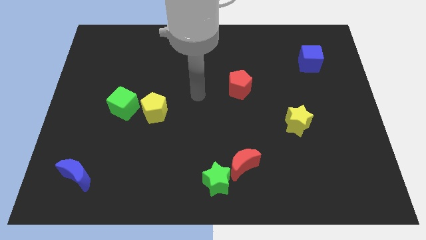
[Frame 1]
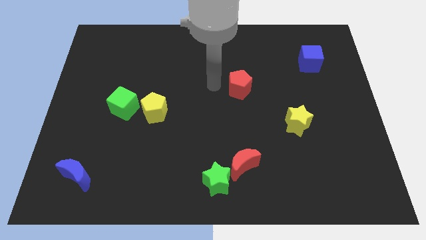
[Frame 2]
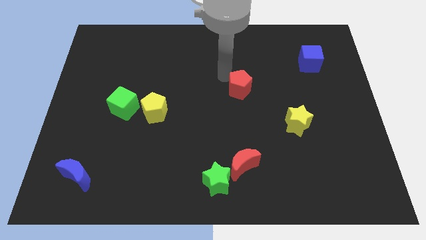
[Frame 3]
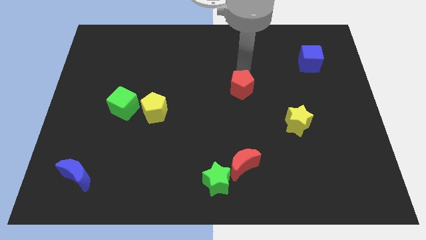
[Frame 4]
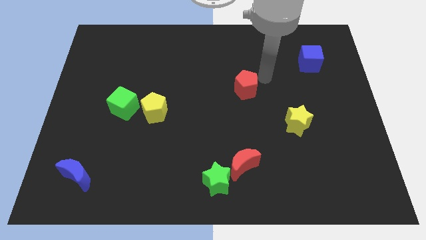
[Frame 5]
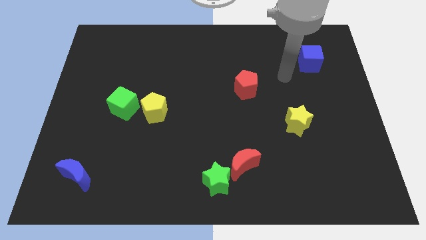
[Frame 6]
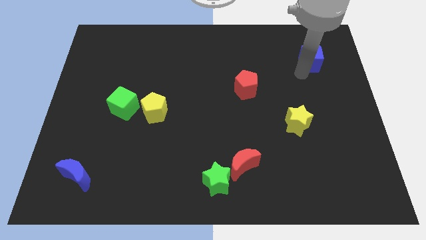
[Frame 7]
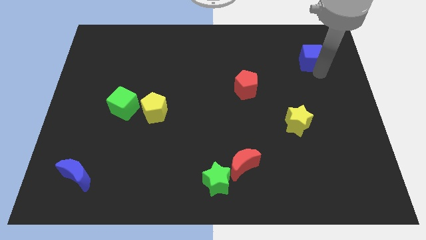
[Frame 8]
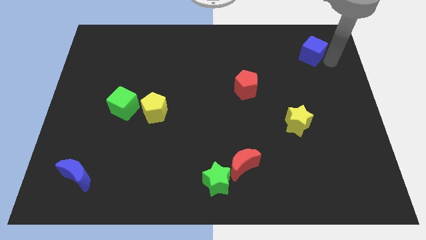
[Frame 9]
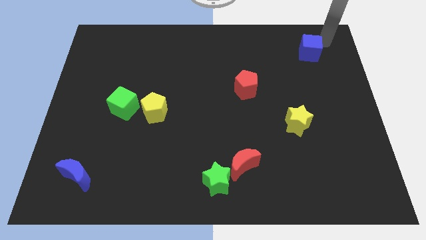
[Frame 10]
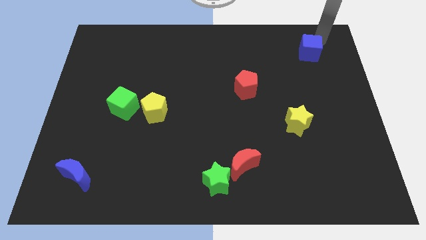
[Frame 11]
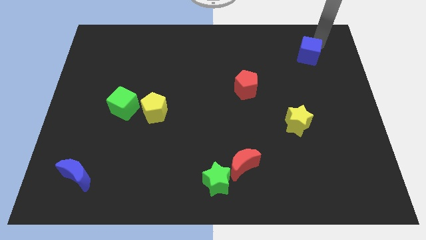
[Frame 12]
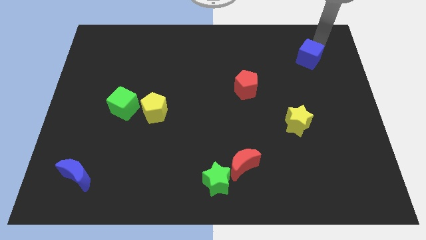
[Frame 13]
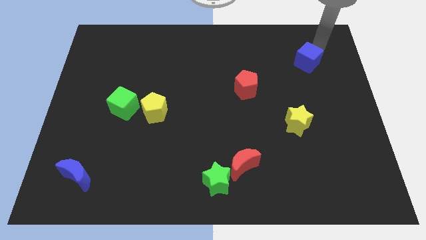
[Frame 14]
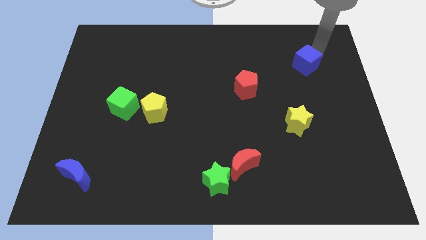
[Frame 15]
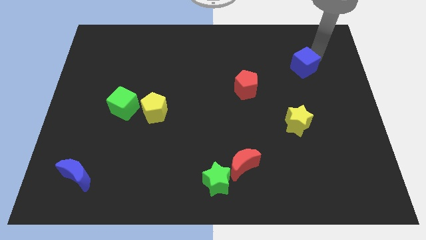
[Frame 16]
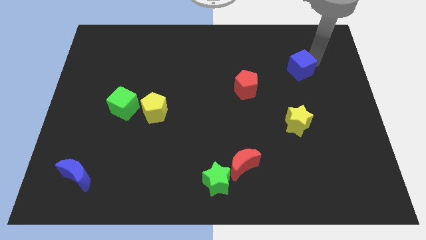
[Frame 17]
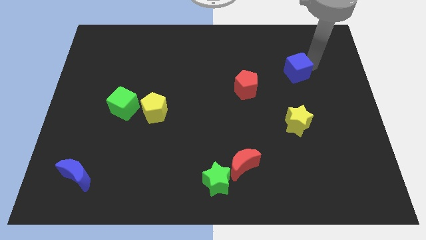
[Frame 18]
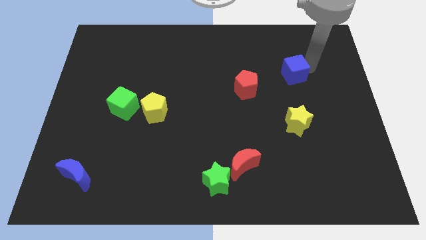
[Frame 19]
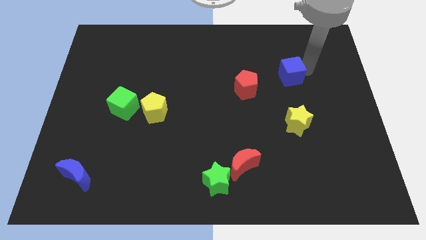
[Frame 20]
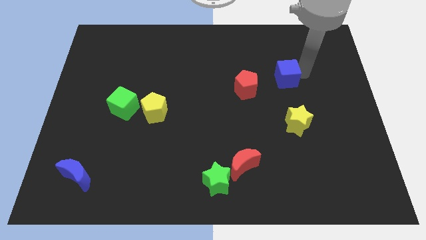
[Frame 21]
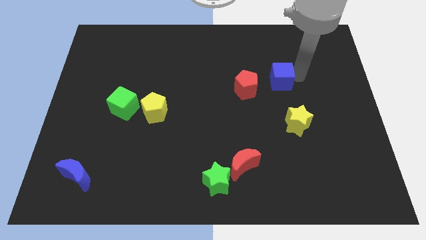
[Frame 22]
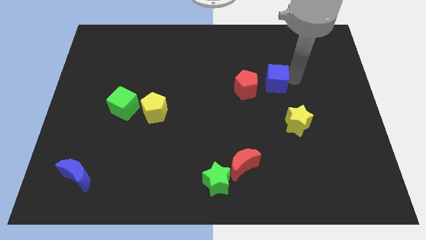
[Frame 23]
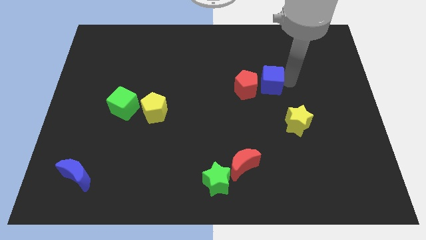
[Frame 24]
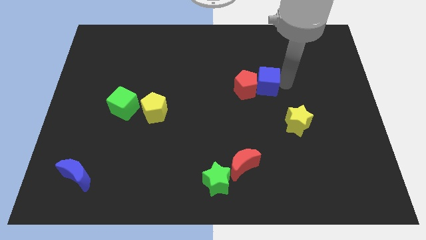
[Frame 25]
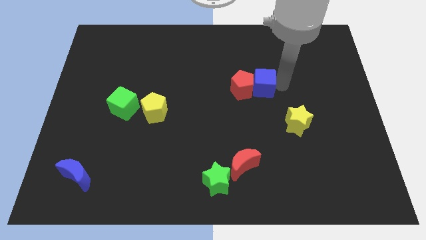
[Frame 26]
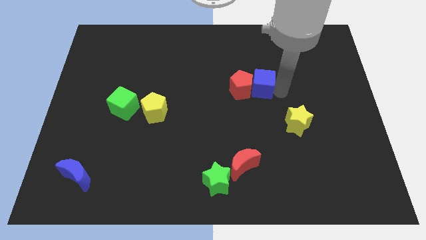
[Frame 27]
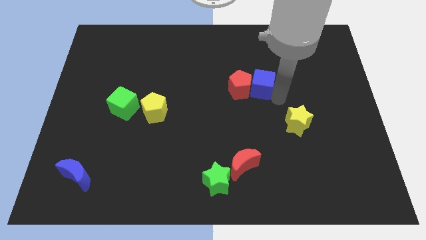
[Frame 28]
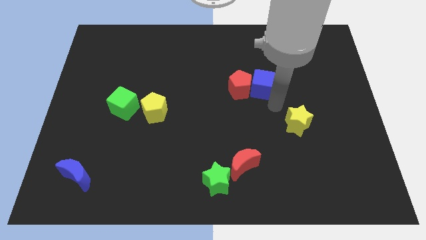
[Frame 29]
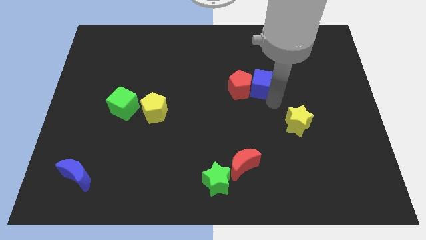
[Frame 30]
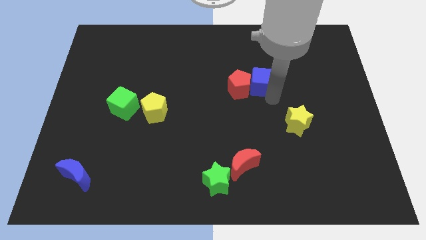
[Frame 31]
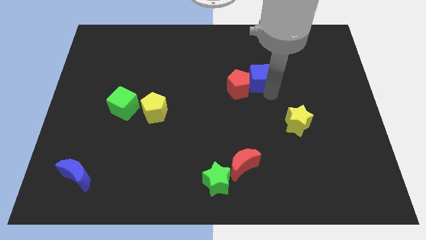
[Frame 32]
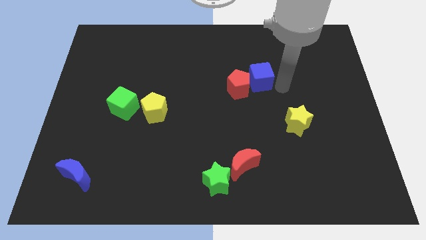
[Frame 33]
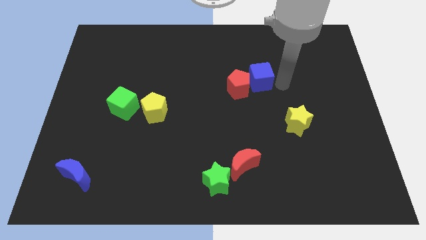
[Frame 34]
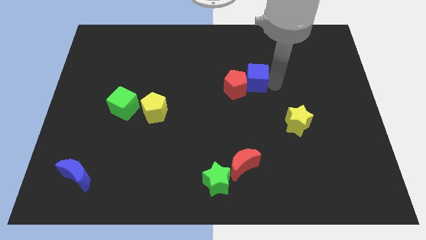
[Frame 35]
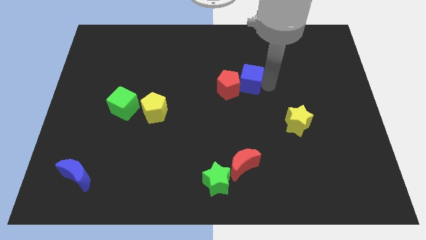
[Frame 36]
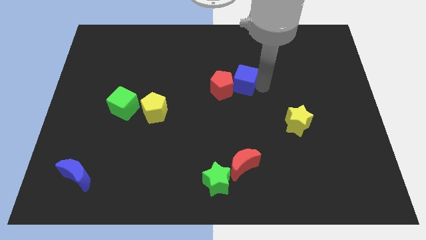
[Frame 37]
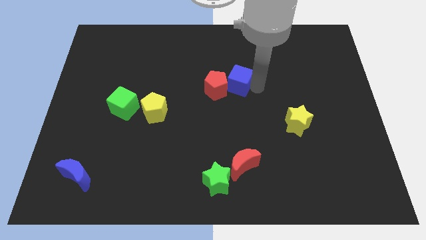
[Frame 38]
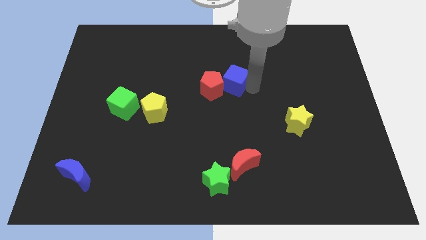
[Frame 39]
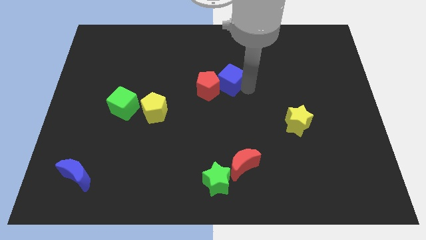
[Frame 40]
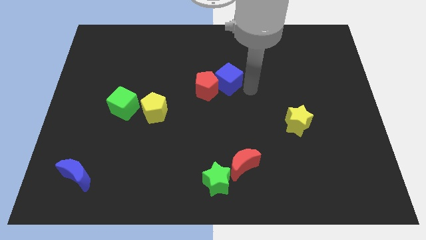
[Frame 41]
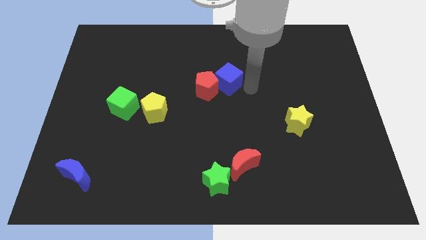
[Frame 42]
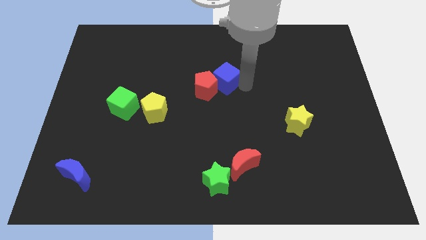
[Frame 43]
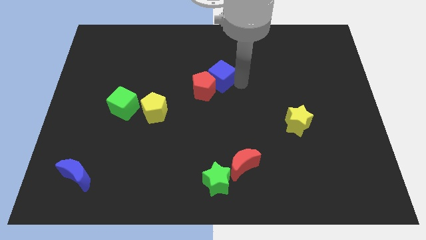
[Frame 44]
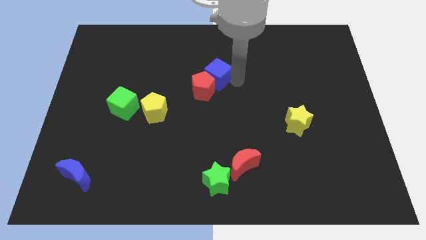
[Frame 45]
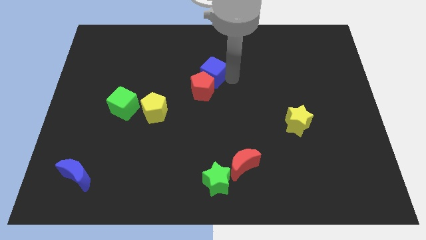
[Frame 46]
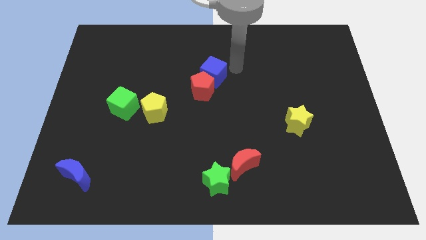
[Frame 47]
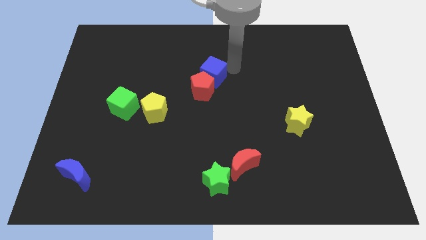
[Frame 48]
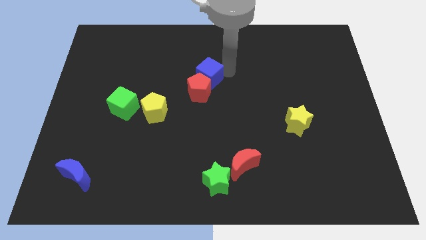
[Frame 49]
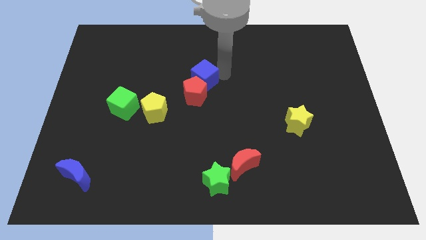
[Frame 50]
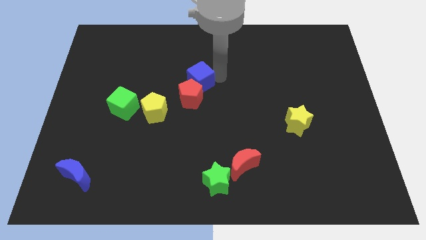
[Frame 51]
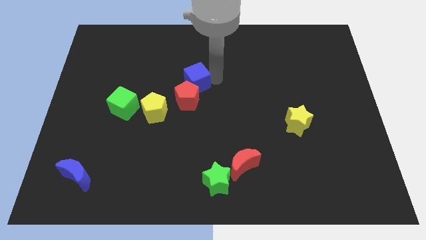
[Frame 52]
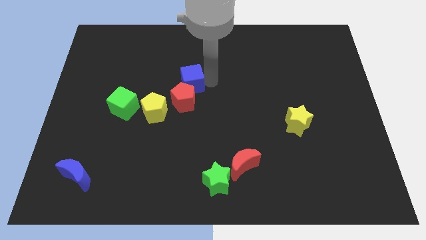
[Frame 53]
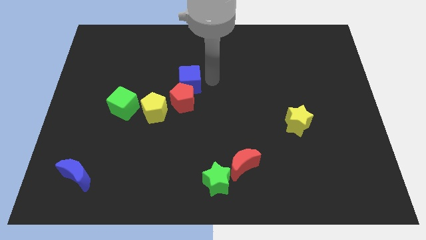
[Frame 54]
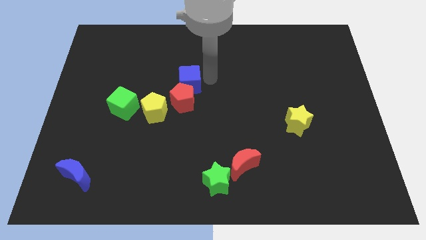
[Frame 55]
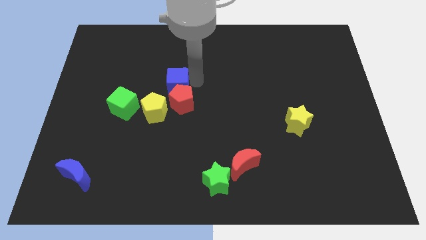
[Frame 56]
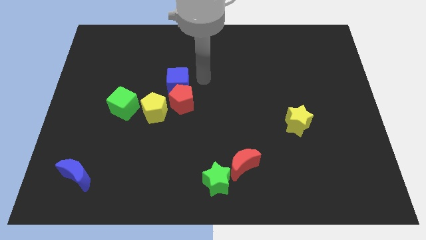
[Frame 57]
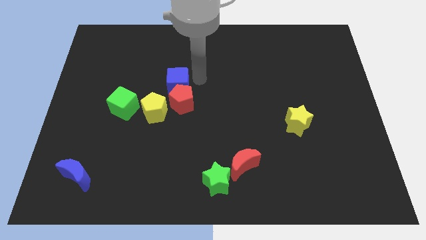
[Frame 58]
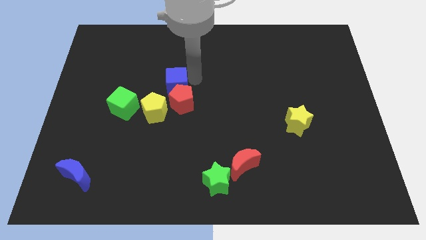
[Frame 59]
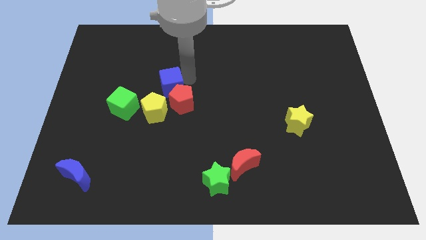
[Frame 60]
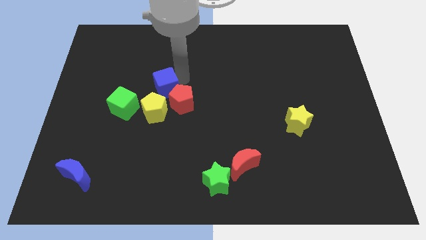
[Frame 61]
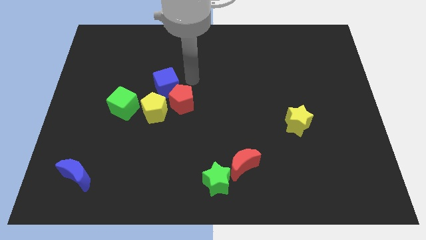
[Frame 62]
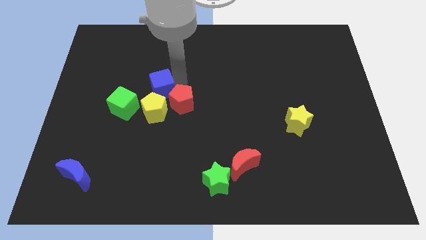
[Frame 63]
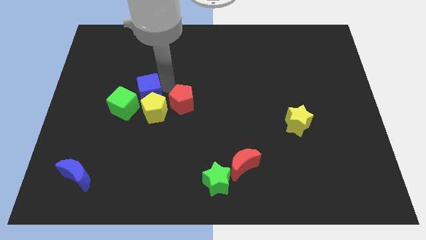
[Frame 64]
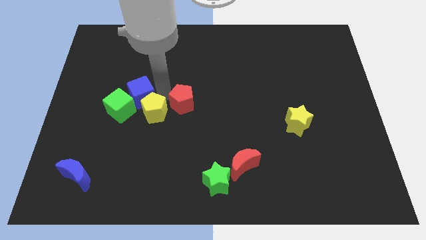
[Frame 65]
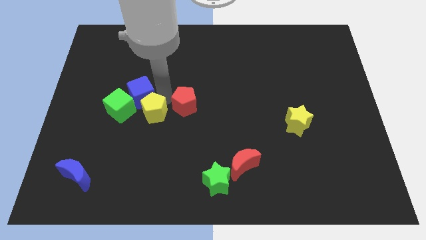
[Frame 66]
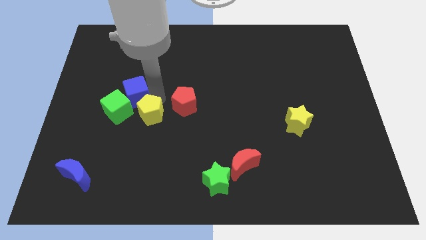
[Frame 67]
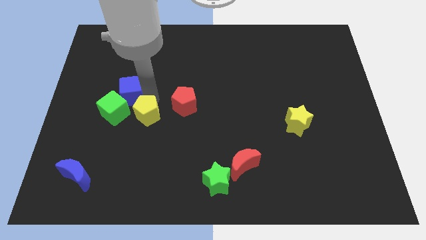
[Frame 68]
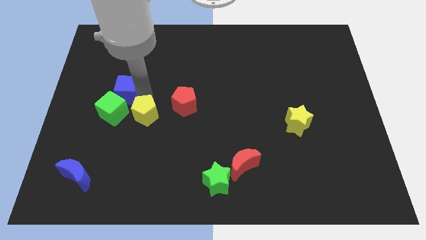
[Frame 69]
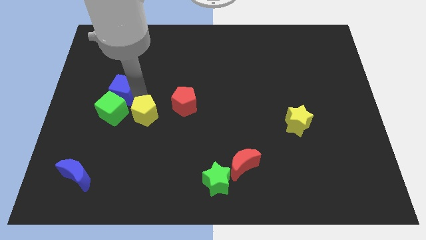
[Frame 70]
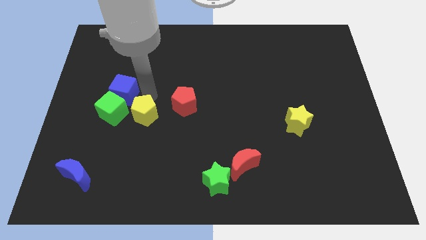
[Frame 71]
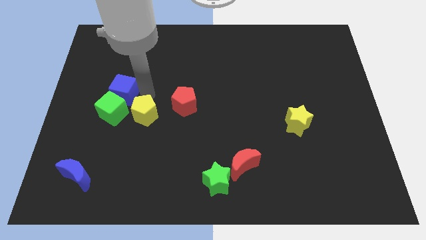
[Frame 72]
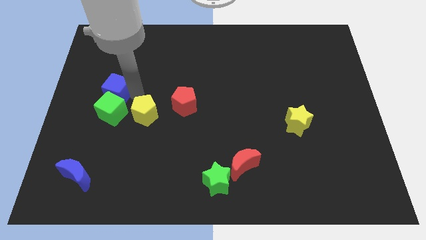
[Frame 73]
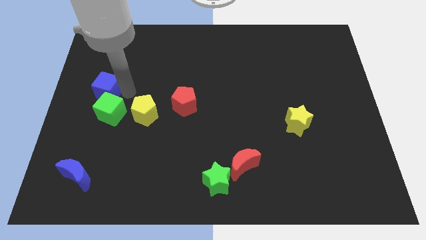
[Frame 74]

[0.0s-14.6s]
slide the blue cube to the center left
